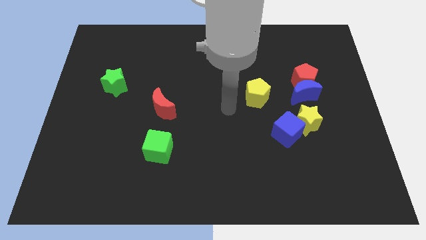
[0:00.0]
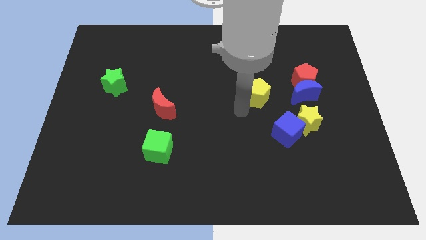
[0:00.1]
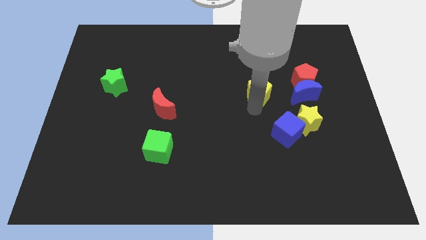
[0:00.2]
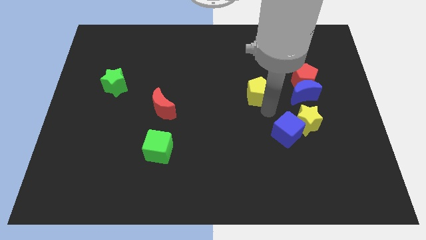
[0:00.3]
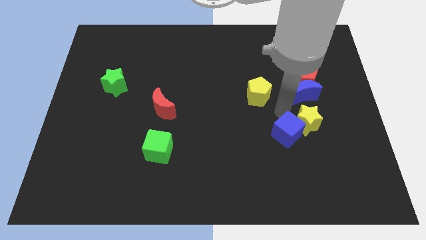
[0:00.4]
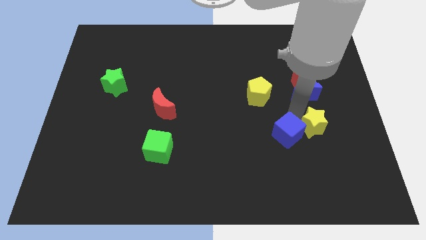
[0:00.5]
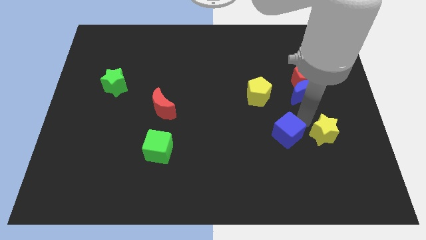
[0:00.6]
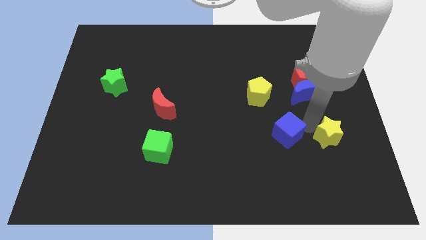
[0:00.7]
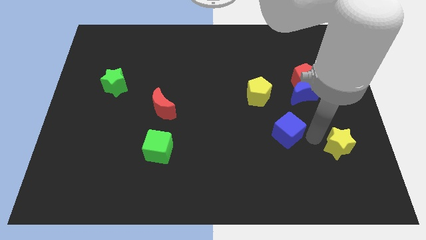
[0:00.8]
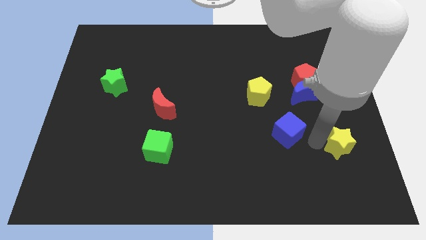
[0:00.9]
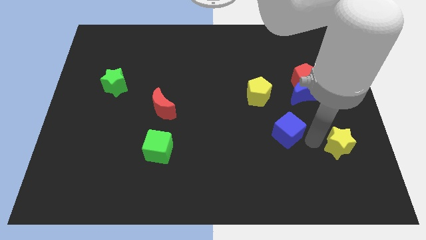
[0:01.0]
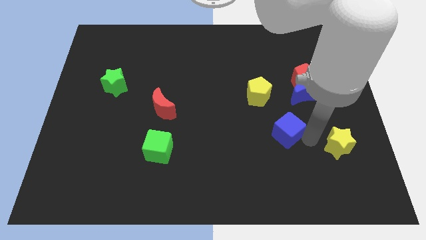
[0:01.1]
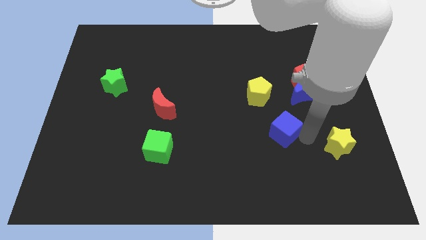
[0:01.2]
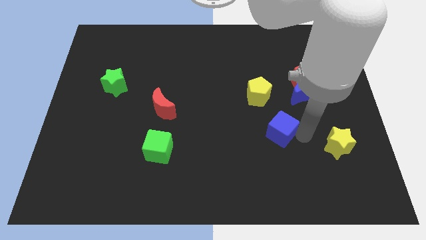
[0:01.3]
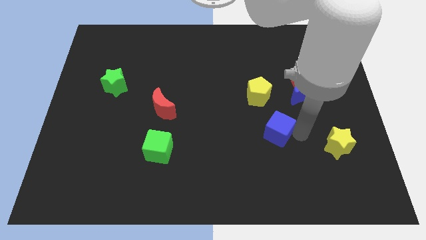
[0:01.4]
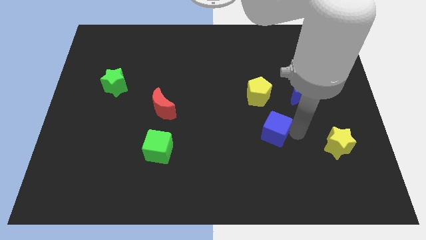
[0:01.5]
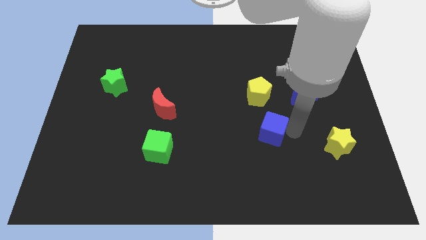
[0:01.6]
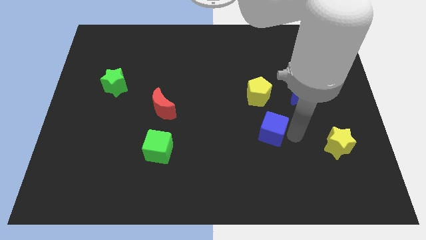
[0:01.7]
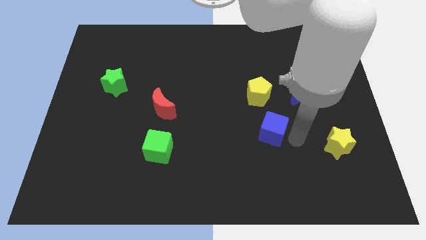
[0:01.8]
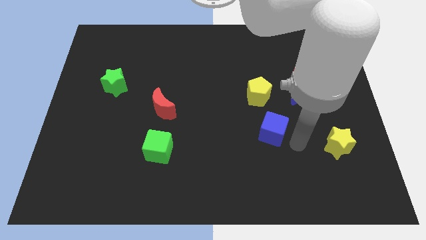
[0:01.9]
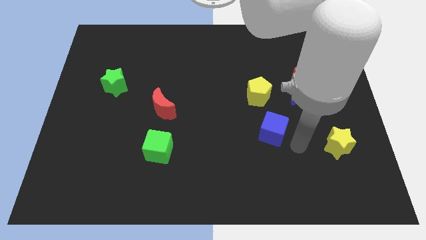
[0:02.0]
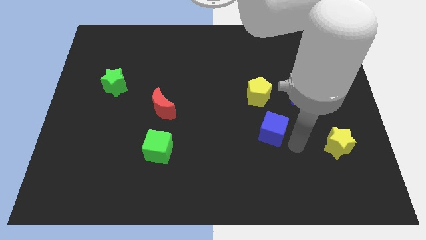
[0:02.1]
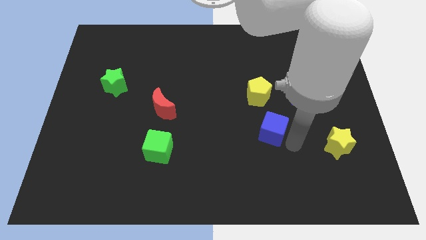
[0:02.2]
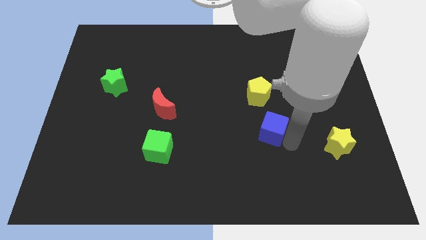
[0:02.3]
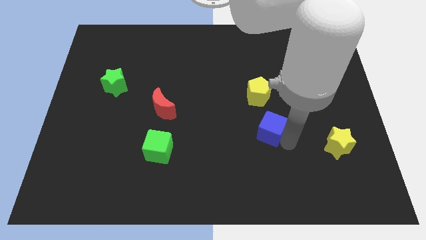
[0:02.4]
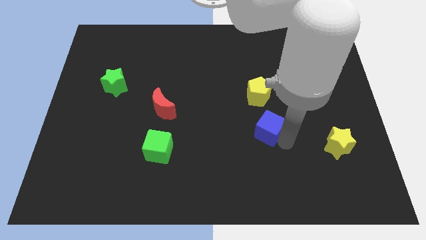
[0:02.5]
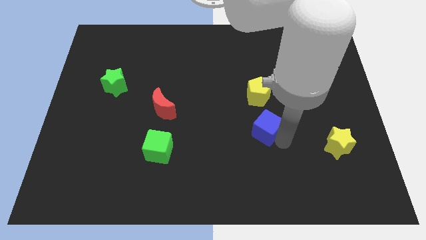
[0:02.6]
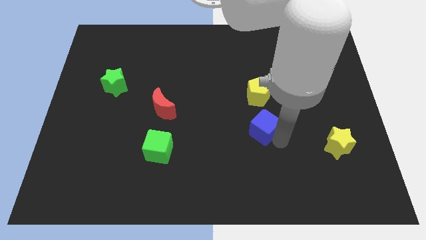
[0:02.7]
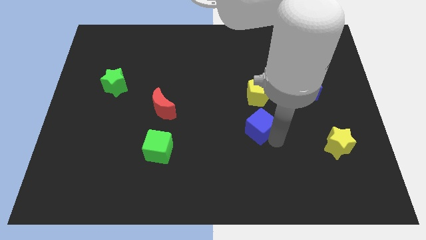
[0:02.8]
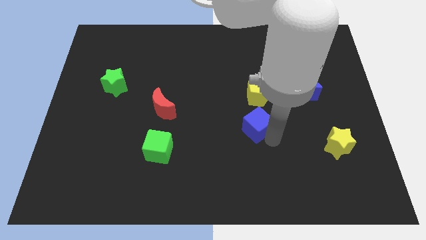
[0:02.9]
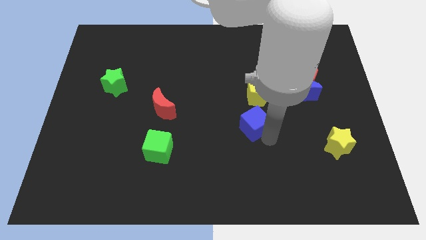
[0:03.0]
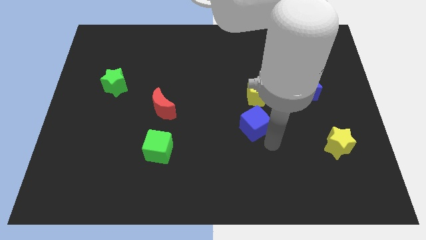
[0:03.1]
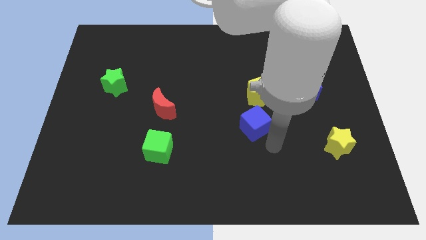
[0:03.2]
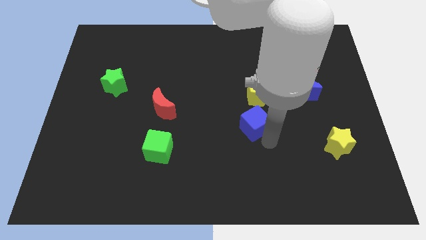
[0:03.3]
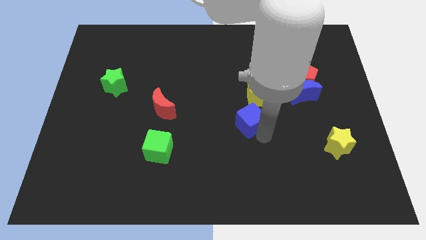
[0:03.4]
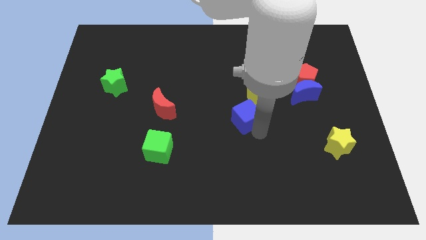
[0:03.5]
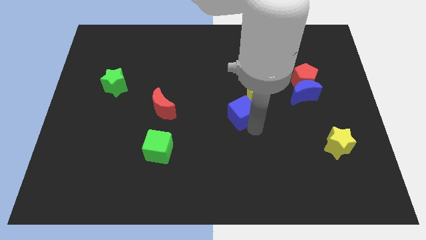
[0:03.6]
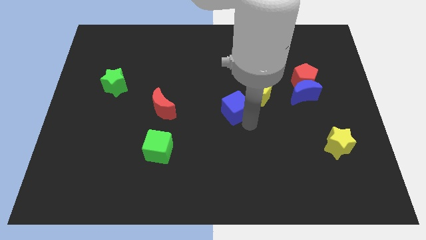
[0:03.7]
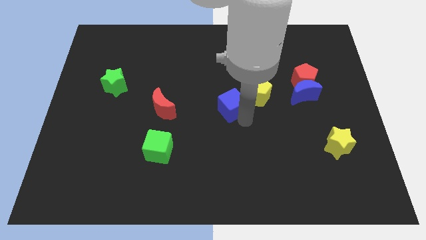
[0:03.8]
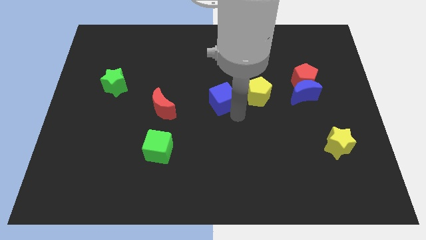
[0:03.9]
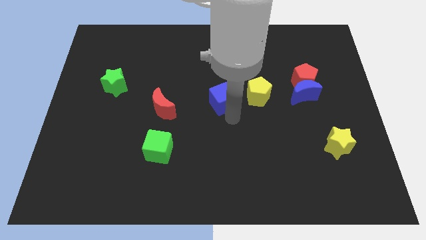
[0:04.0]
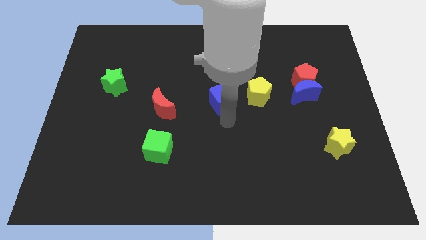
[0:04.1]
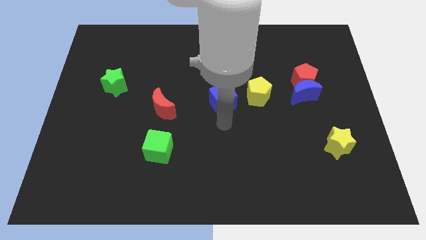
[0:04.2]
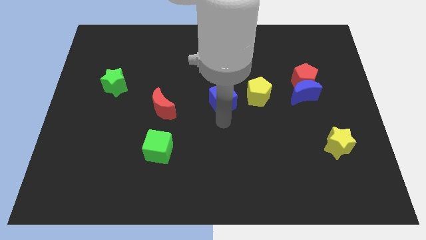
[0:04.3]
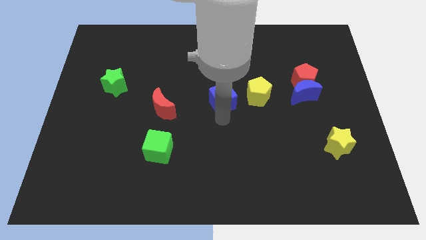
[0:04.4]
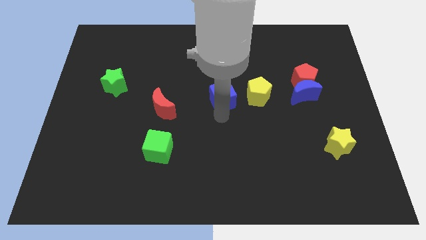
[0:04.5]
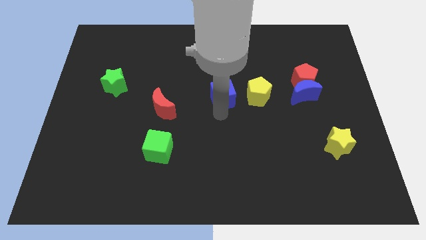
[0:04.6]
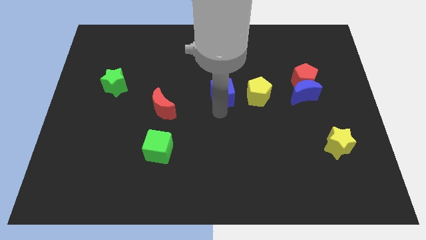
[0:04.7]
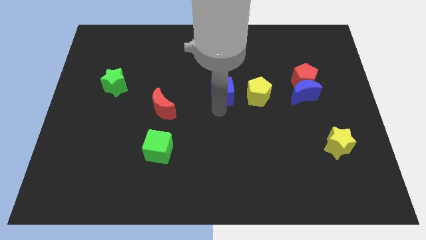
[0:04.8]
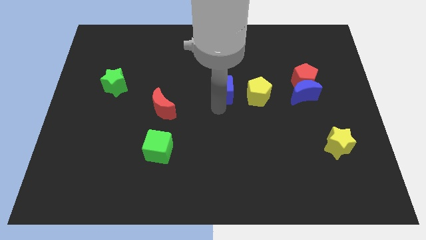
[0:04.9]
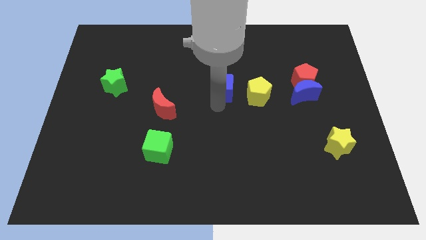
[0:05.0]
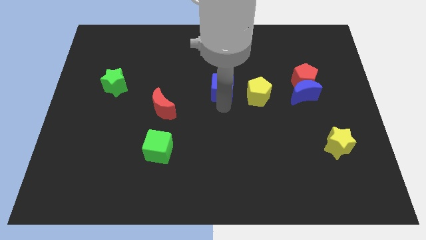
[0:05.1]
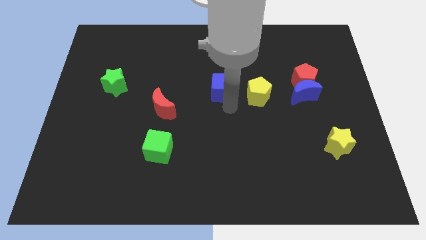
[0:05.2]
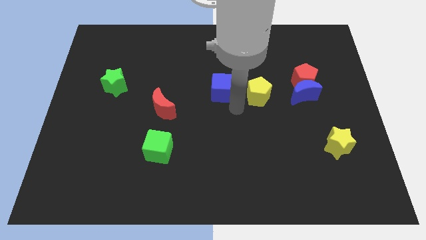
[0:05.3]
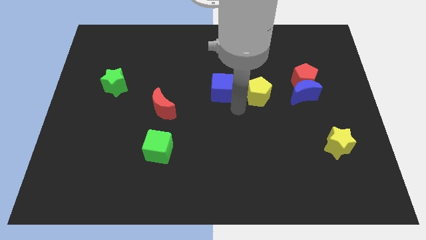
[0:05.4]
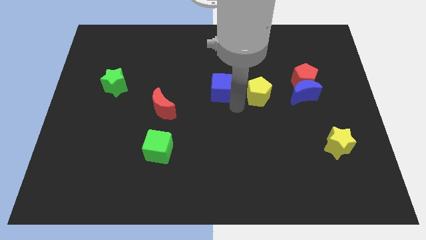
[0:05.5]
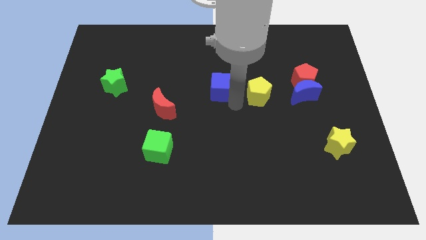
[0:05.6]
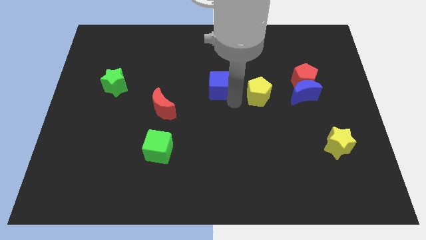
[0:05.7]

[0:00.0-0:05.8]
move the blue cube diagonally up and to the left

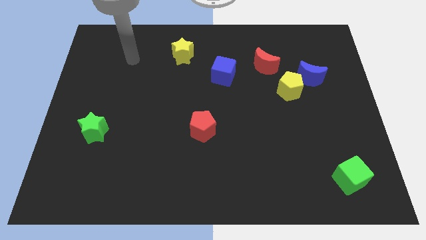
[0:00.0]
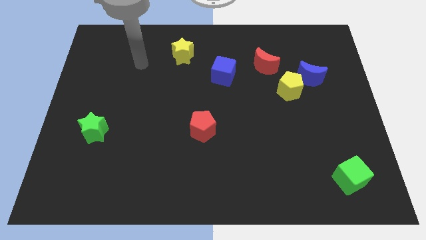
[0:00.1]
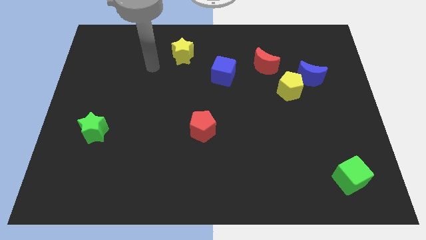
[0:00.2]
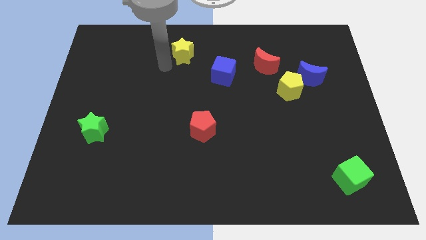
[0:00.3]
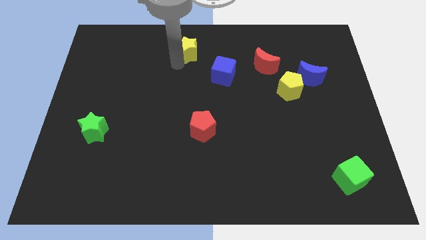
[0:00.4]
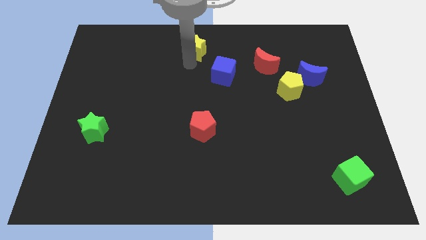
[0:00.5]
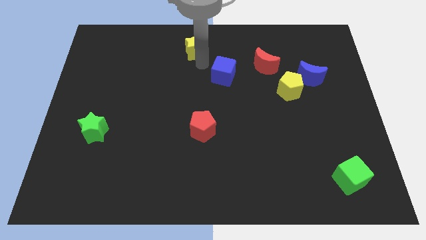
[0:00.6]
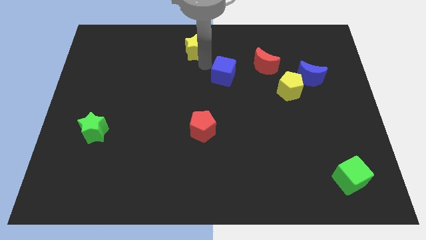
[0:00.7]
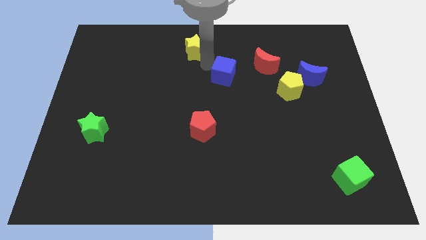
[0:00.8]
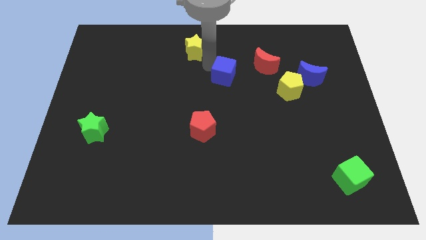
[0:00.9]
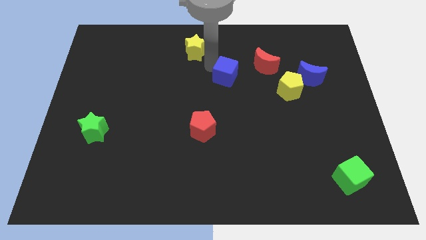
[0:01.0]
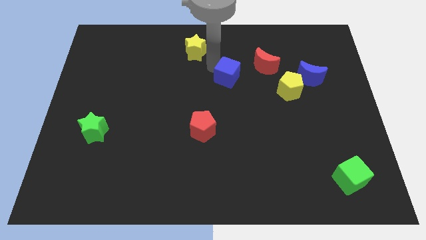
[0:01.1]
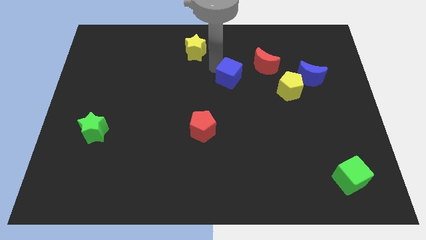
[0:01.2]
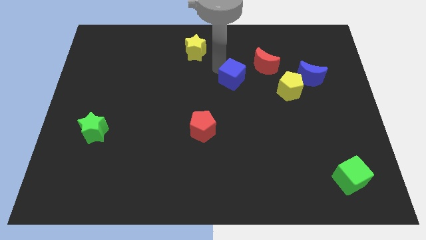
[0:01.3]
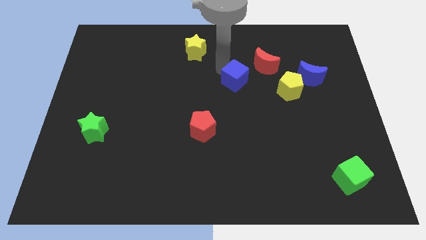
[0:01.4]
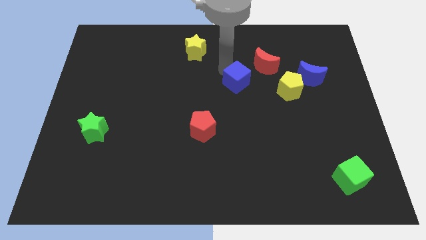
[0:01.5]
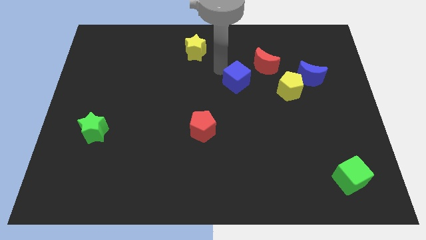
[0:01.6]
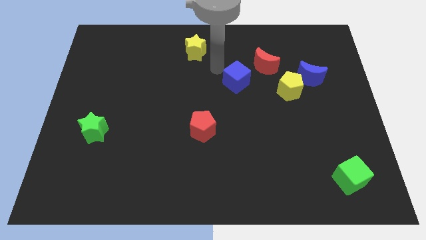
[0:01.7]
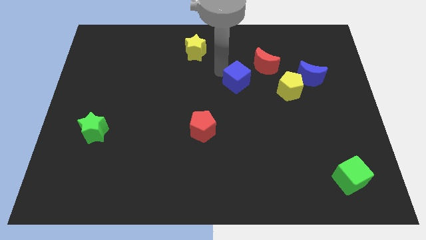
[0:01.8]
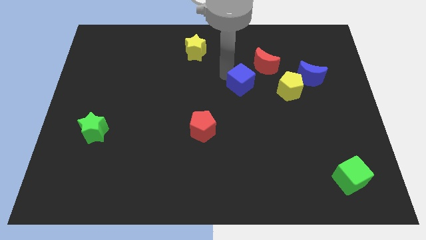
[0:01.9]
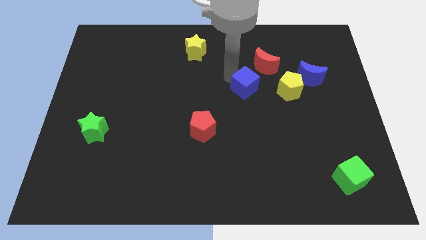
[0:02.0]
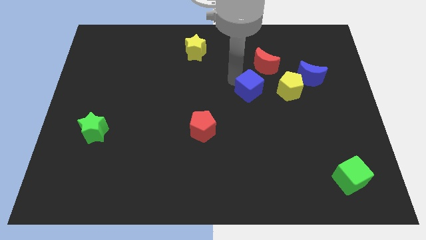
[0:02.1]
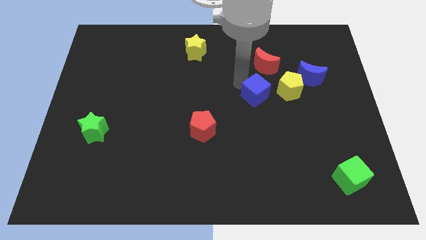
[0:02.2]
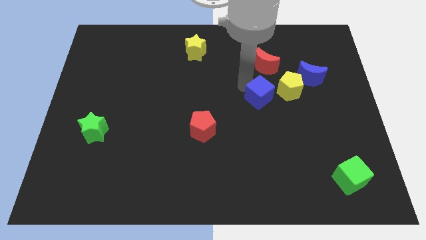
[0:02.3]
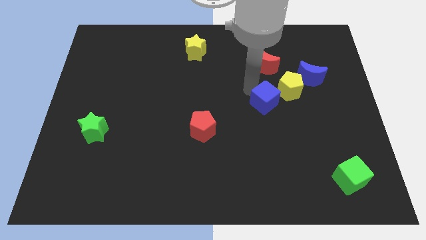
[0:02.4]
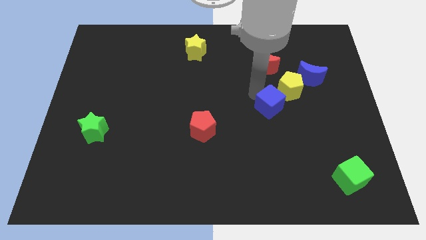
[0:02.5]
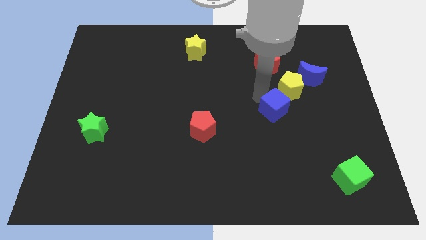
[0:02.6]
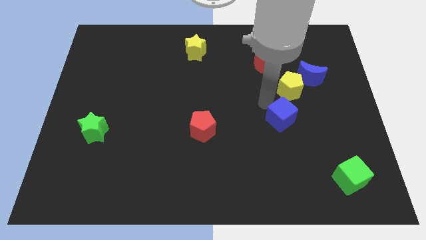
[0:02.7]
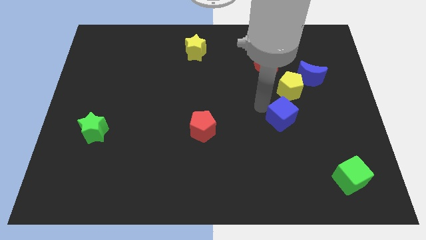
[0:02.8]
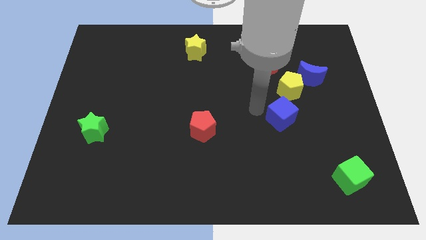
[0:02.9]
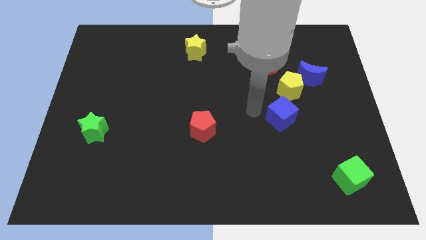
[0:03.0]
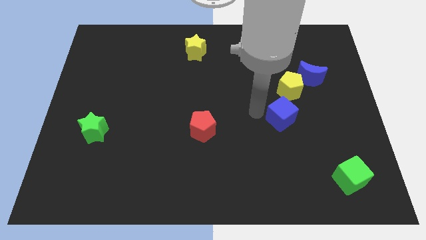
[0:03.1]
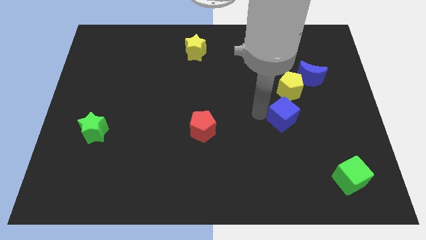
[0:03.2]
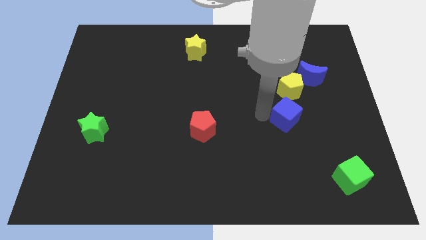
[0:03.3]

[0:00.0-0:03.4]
push the blue cube down and right
